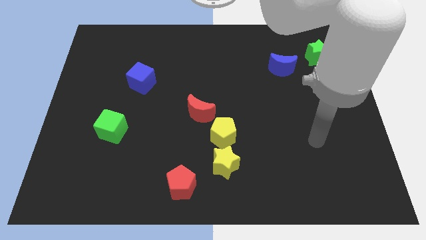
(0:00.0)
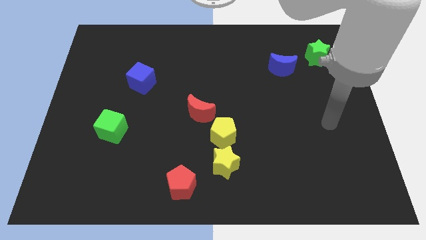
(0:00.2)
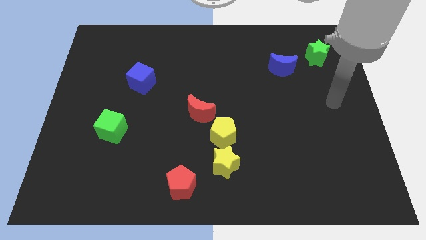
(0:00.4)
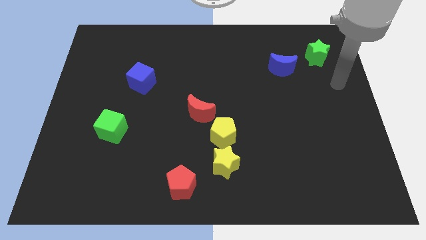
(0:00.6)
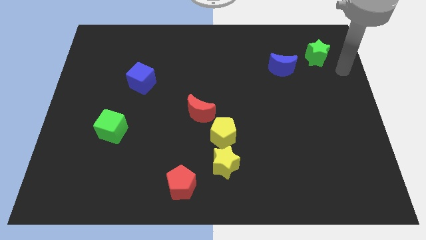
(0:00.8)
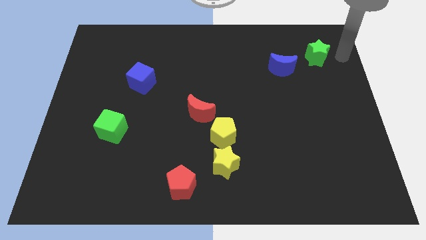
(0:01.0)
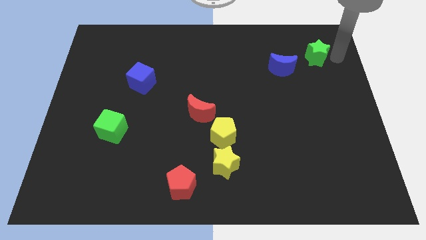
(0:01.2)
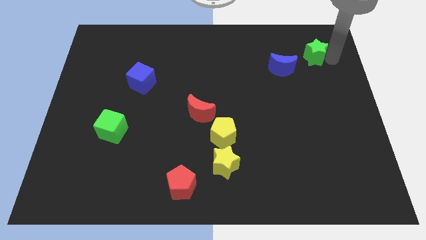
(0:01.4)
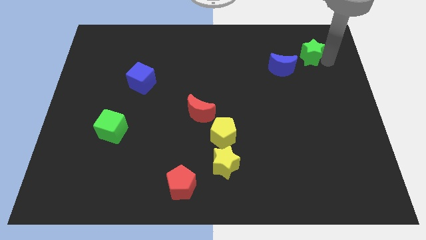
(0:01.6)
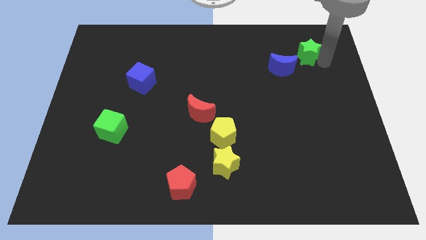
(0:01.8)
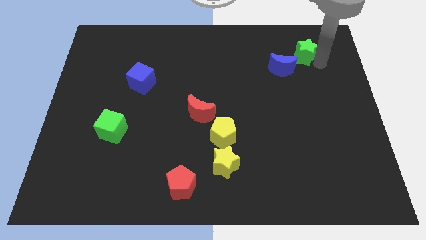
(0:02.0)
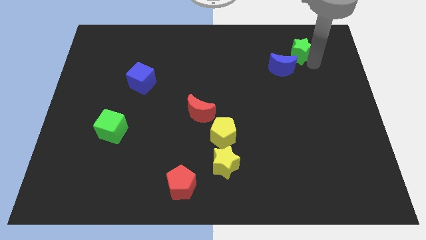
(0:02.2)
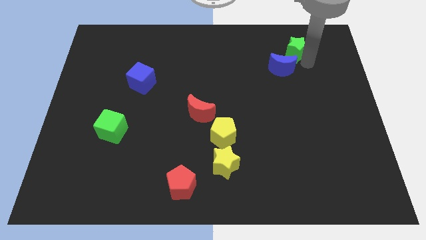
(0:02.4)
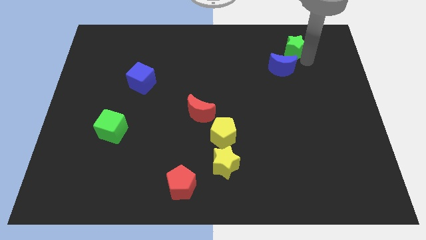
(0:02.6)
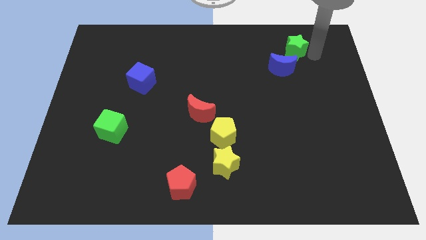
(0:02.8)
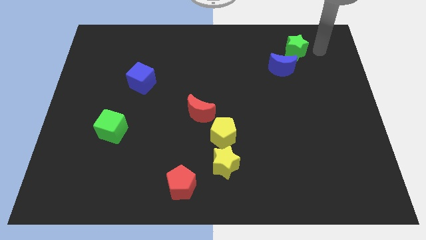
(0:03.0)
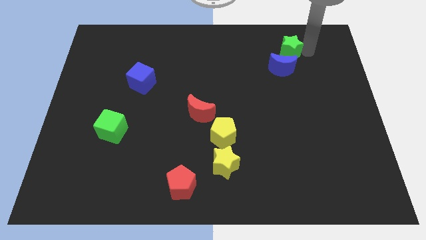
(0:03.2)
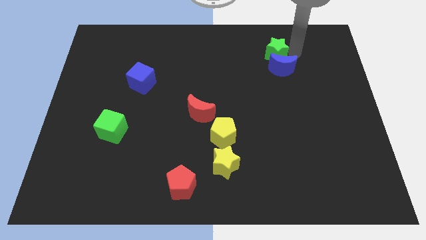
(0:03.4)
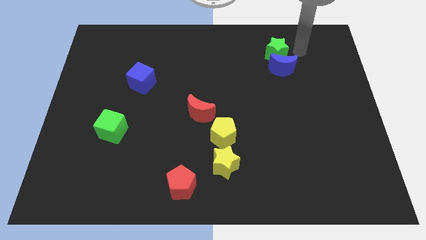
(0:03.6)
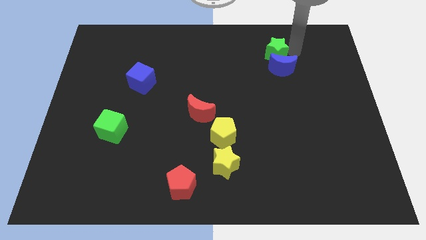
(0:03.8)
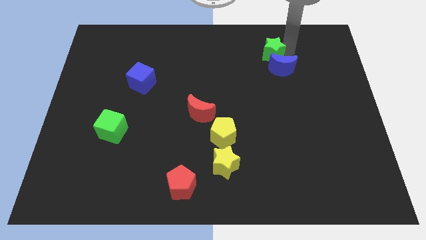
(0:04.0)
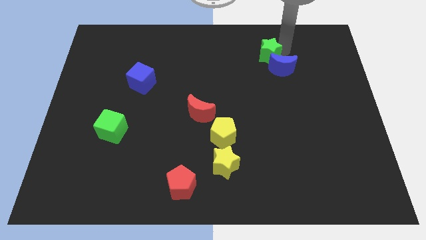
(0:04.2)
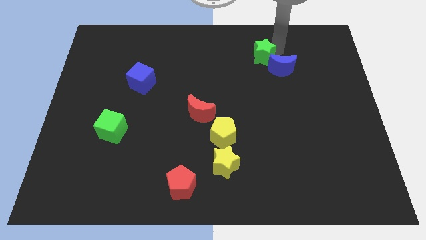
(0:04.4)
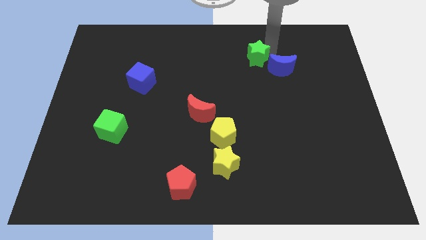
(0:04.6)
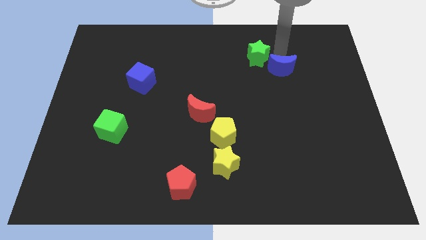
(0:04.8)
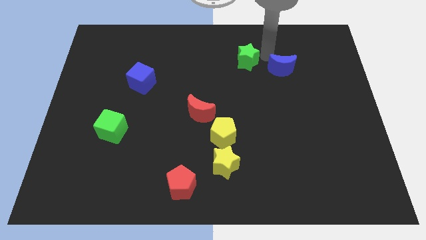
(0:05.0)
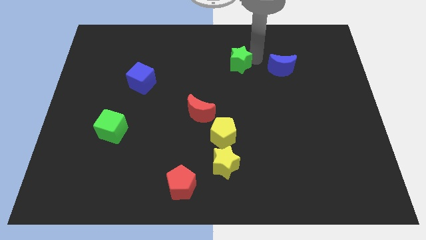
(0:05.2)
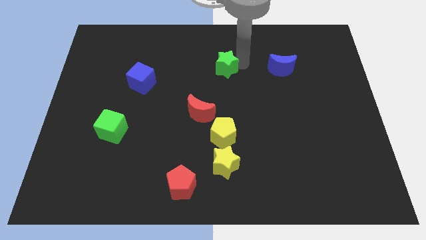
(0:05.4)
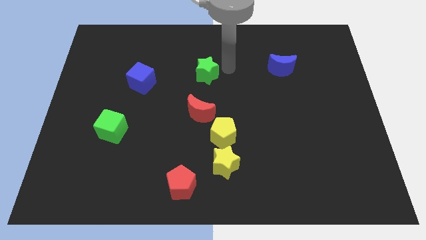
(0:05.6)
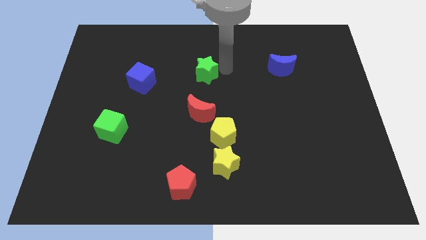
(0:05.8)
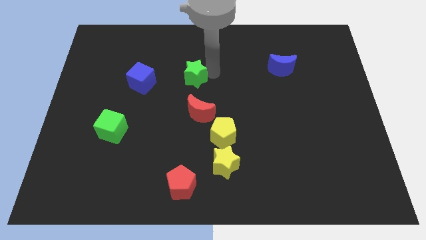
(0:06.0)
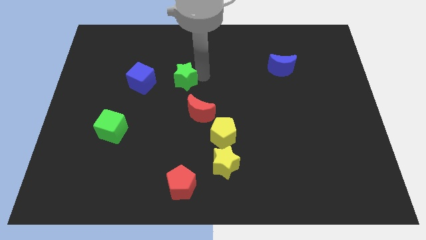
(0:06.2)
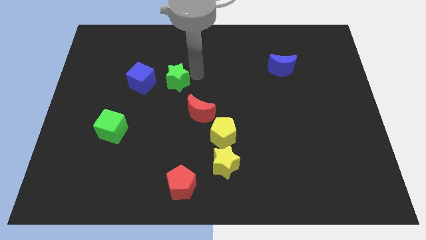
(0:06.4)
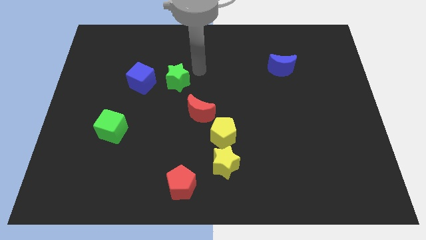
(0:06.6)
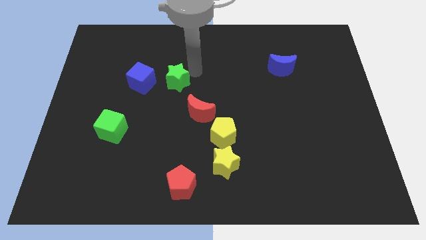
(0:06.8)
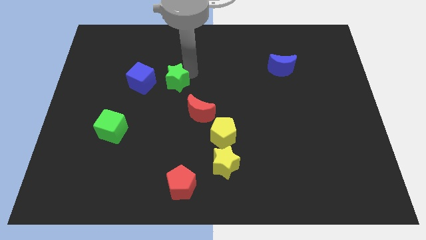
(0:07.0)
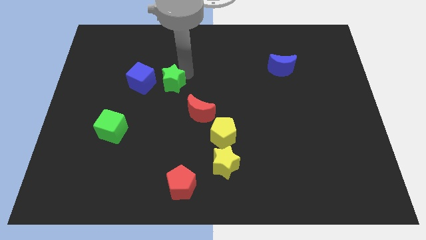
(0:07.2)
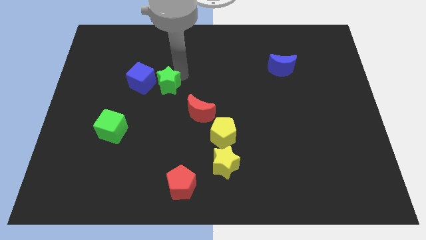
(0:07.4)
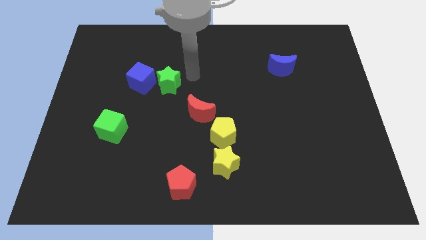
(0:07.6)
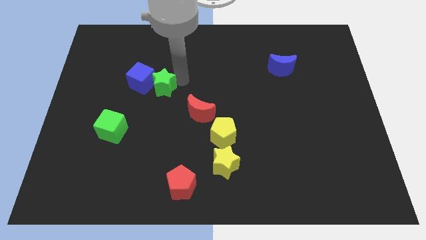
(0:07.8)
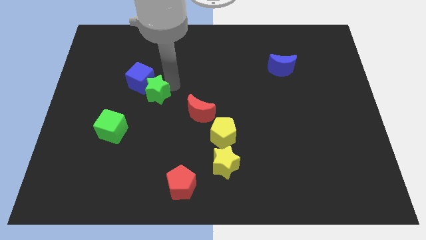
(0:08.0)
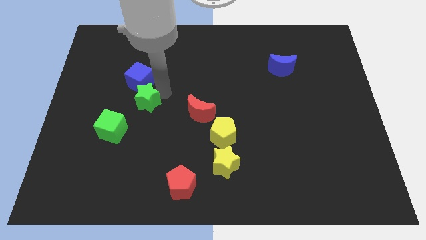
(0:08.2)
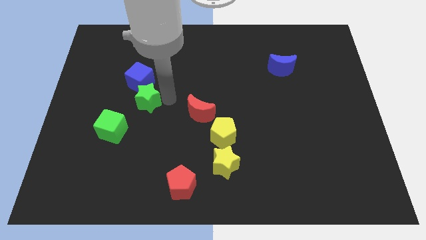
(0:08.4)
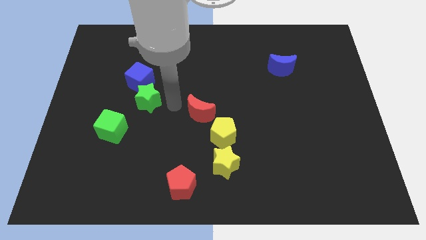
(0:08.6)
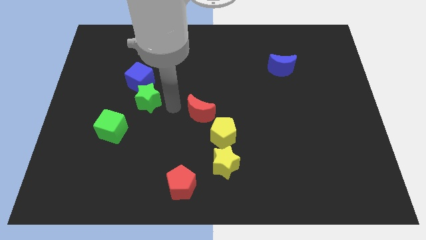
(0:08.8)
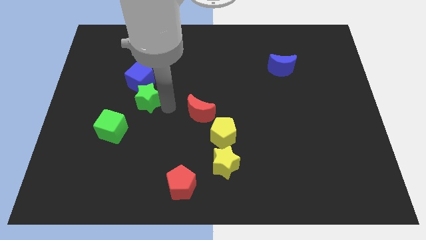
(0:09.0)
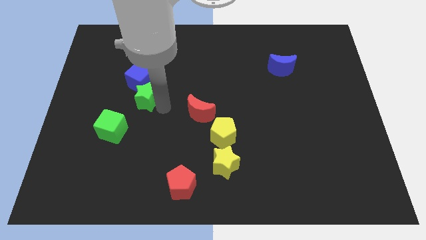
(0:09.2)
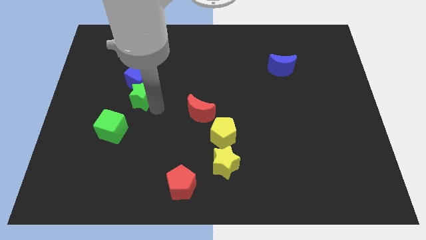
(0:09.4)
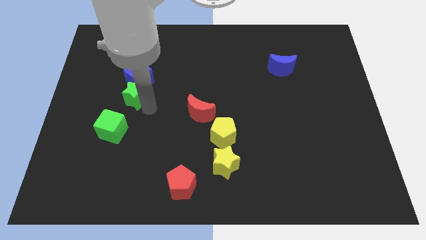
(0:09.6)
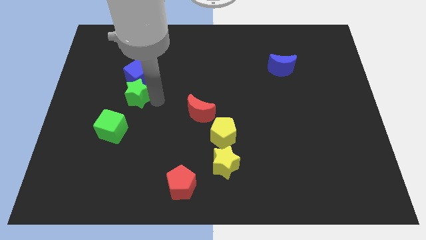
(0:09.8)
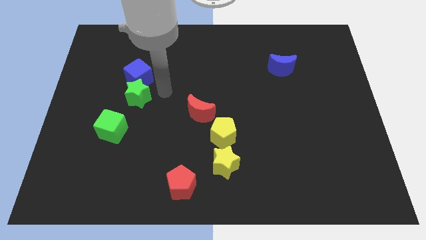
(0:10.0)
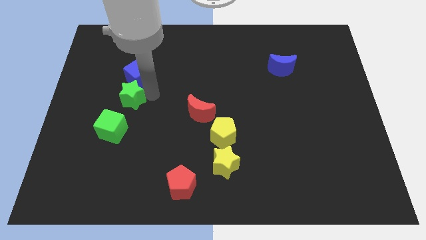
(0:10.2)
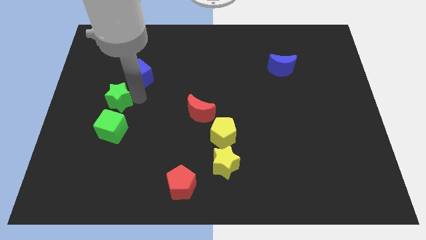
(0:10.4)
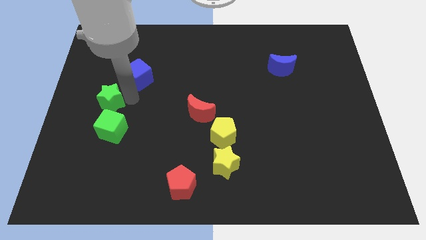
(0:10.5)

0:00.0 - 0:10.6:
push the green star diagonally up and to the left of the green cube

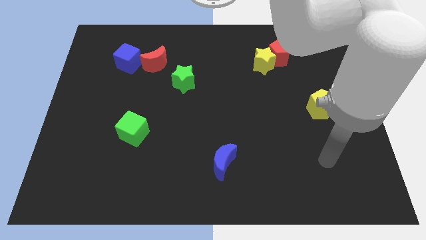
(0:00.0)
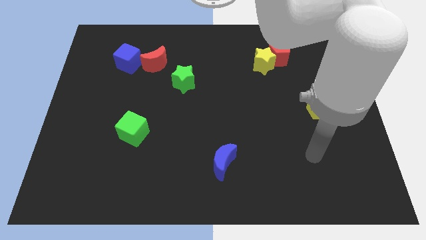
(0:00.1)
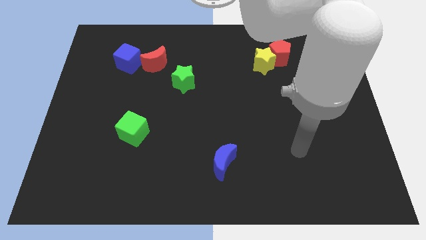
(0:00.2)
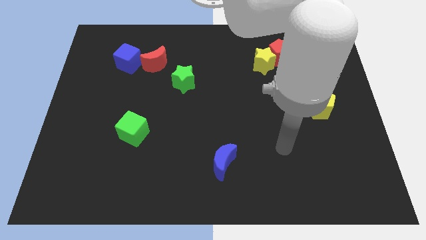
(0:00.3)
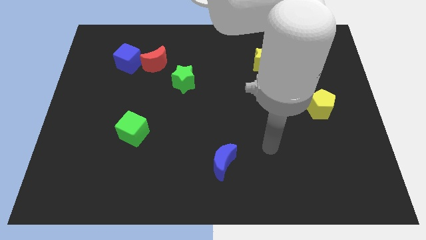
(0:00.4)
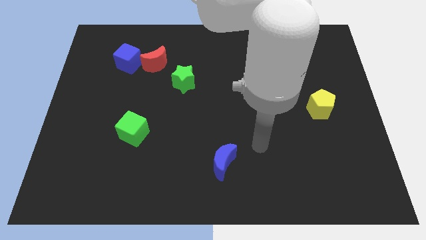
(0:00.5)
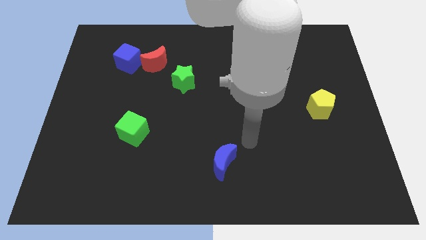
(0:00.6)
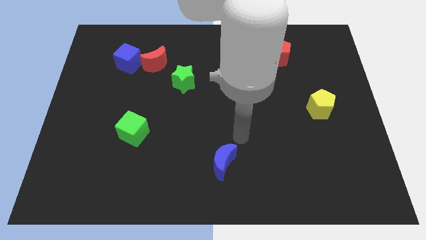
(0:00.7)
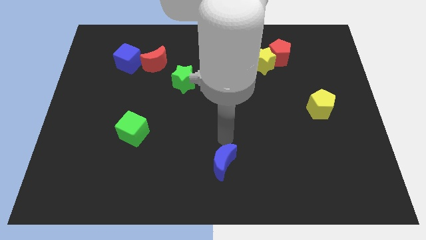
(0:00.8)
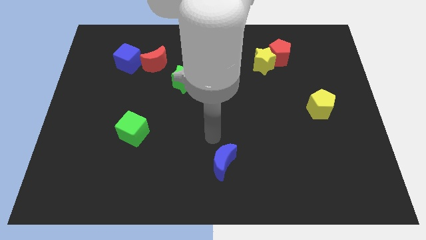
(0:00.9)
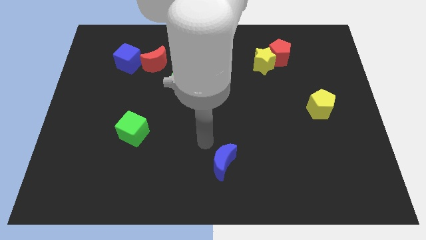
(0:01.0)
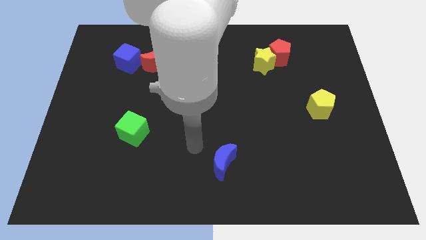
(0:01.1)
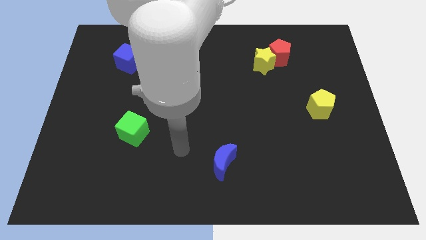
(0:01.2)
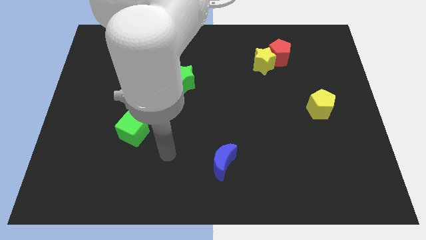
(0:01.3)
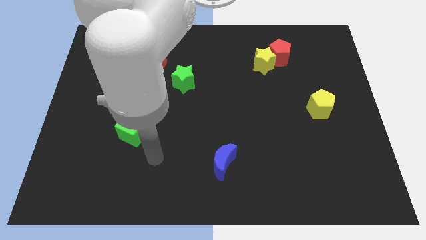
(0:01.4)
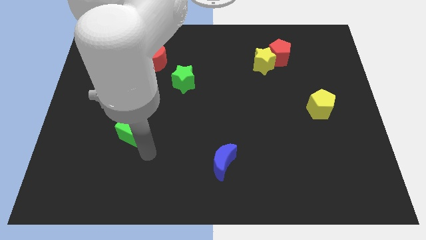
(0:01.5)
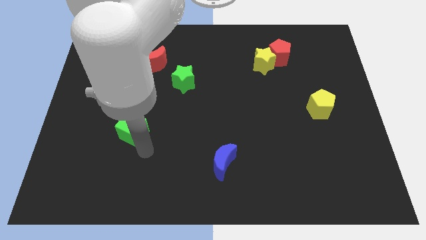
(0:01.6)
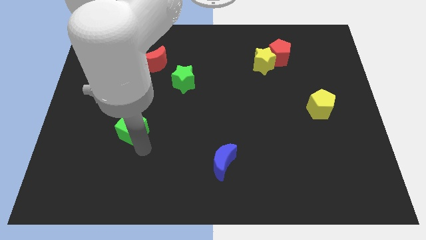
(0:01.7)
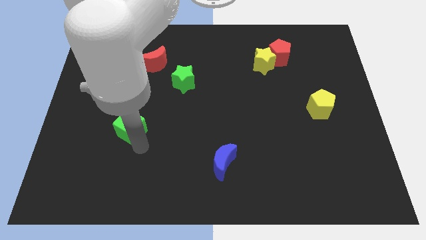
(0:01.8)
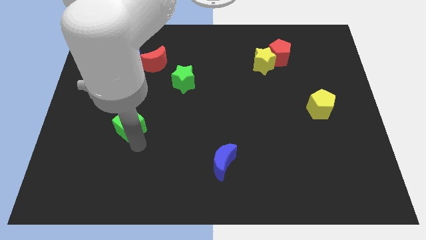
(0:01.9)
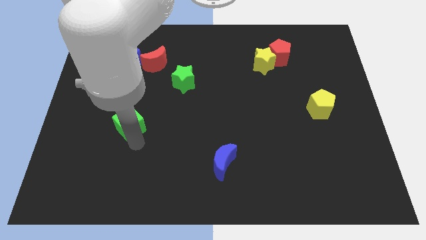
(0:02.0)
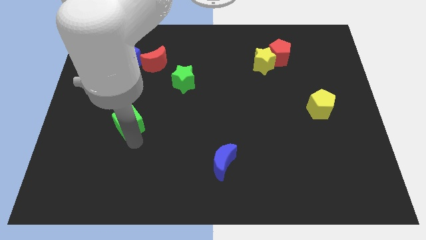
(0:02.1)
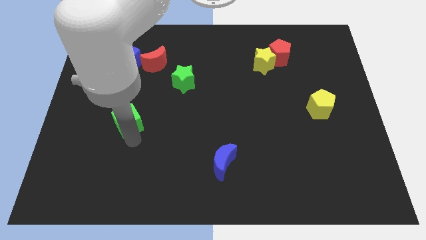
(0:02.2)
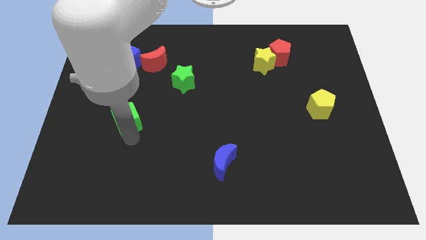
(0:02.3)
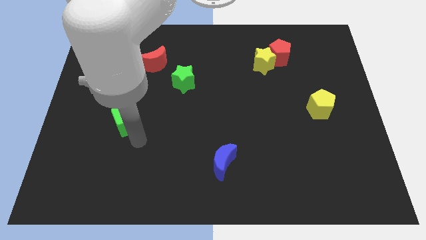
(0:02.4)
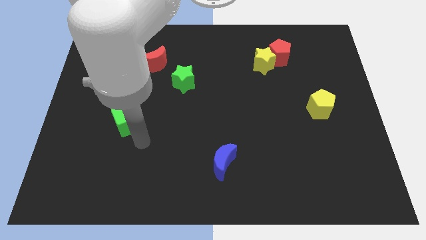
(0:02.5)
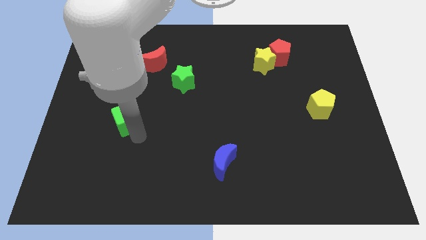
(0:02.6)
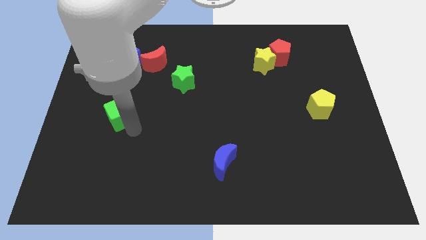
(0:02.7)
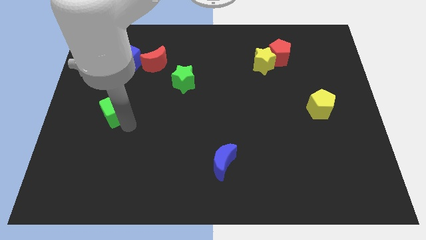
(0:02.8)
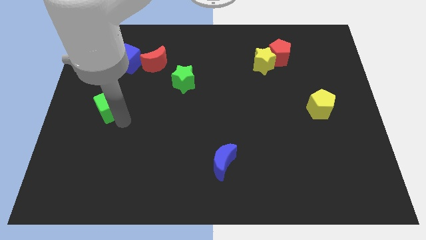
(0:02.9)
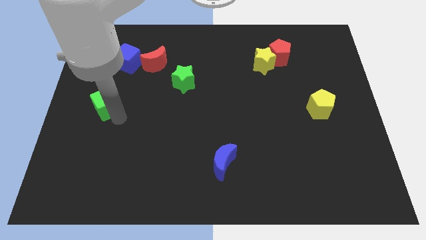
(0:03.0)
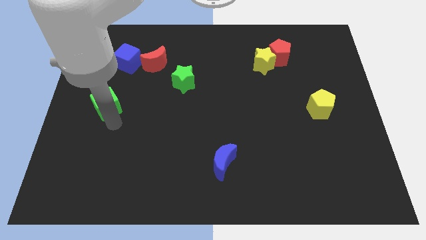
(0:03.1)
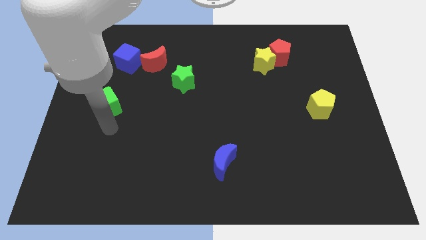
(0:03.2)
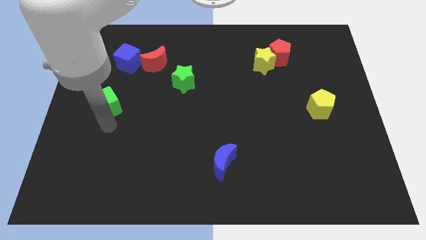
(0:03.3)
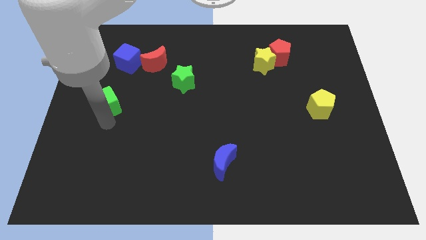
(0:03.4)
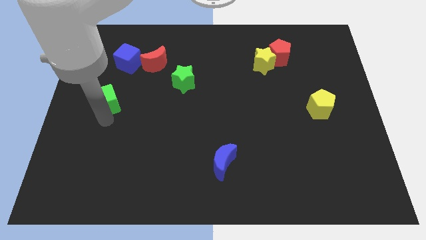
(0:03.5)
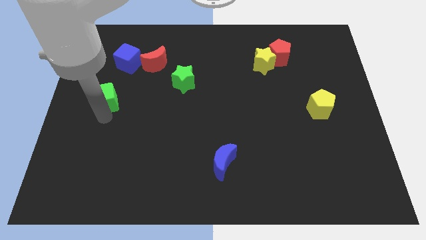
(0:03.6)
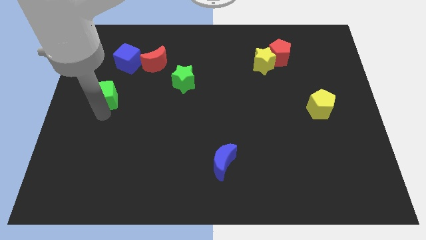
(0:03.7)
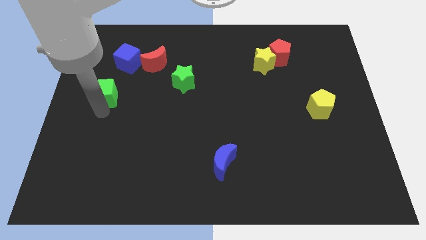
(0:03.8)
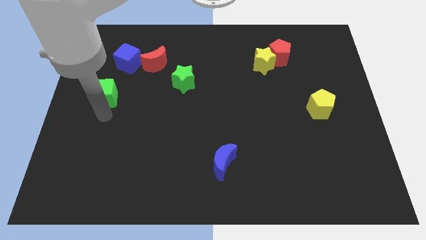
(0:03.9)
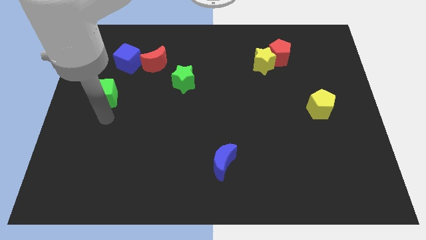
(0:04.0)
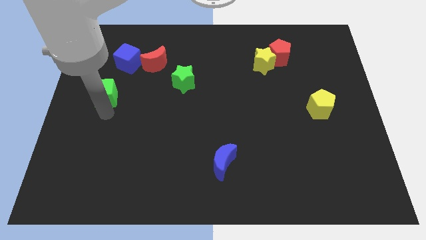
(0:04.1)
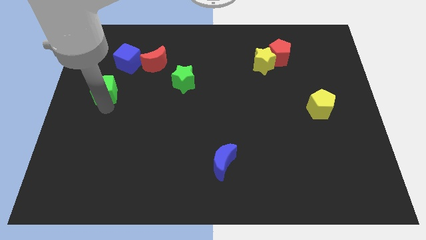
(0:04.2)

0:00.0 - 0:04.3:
move the green cube to the bottom left side of the blue cube
